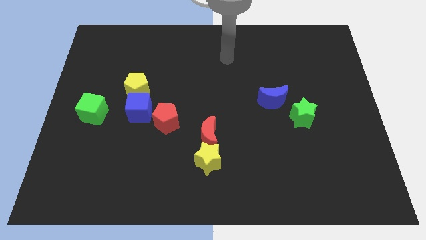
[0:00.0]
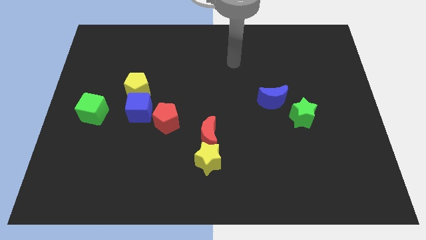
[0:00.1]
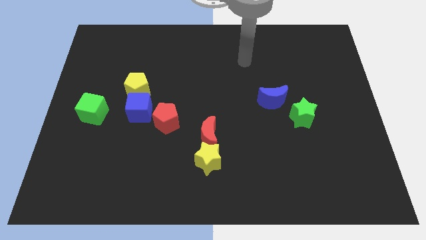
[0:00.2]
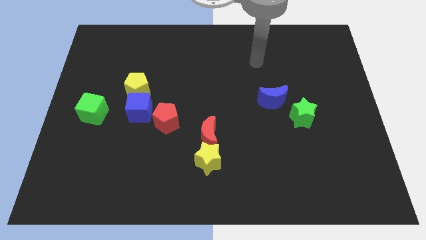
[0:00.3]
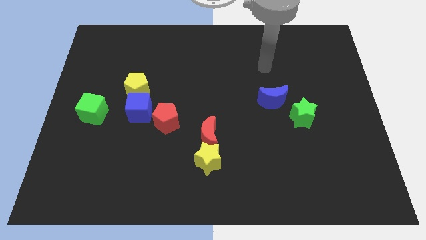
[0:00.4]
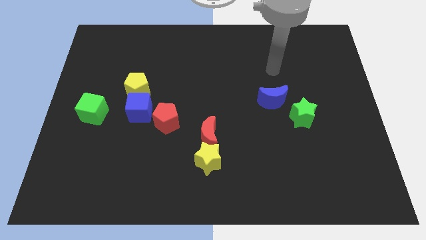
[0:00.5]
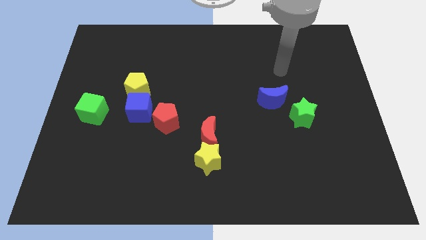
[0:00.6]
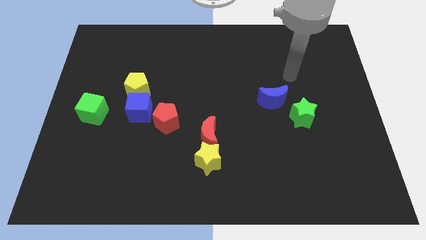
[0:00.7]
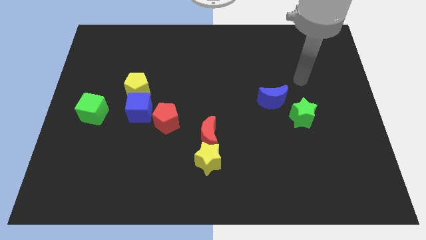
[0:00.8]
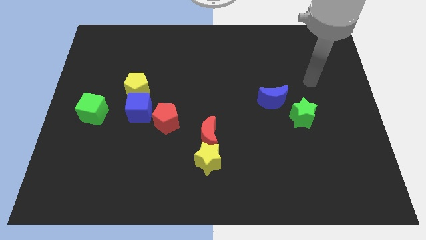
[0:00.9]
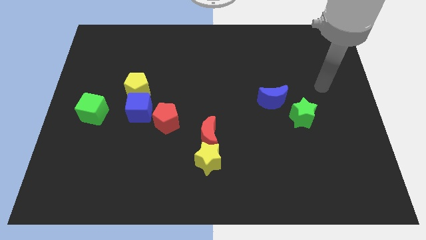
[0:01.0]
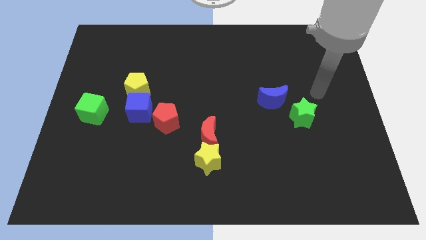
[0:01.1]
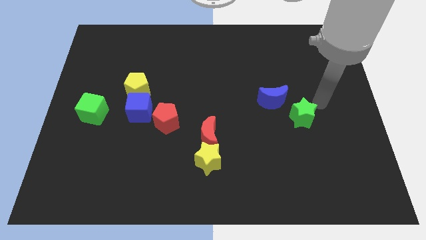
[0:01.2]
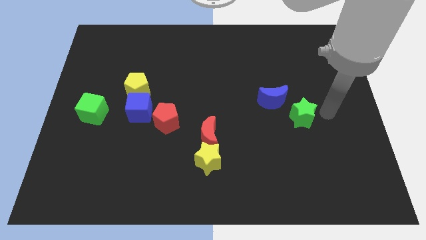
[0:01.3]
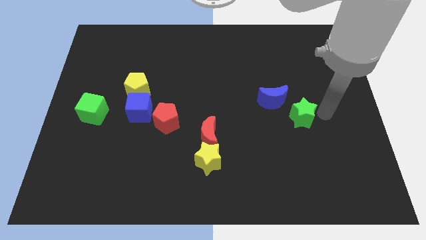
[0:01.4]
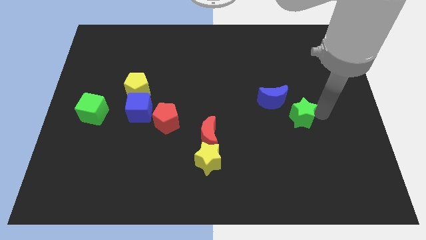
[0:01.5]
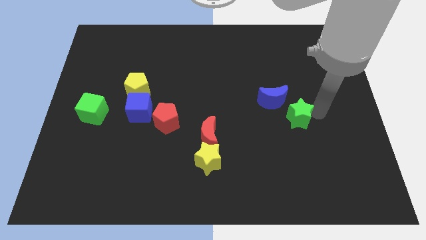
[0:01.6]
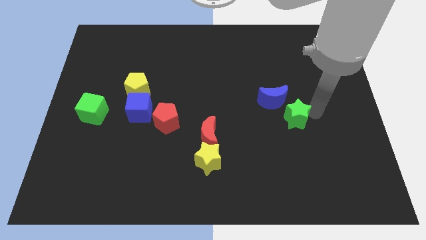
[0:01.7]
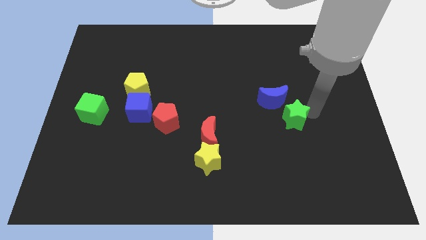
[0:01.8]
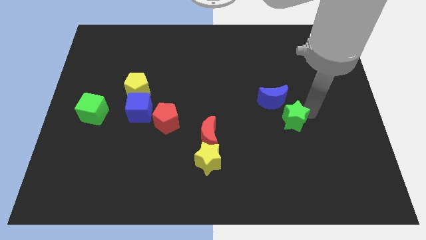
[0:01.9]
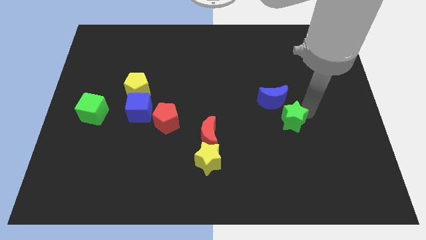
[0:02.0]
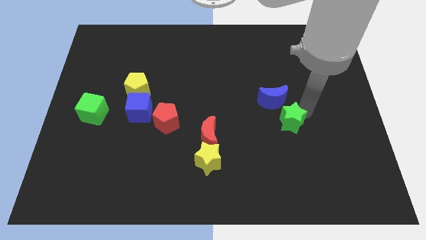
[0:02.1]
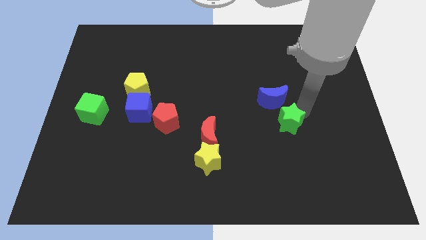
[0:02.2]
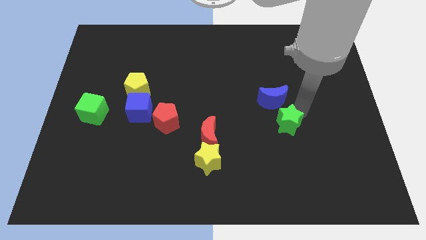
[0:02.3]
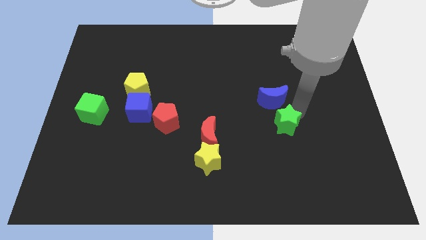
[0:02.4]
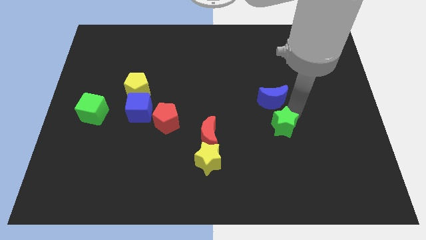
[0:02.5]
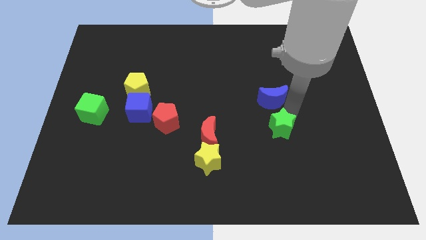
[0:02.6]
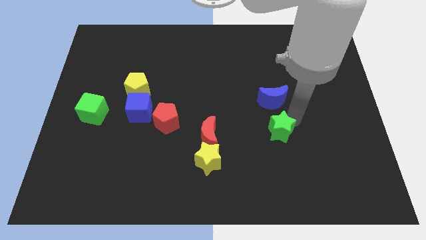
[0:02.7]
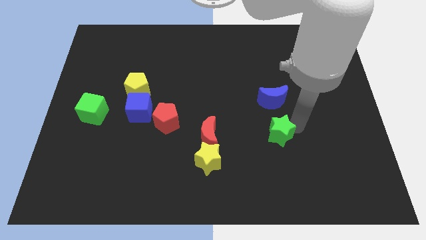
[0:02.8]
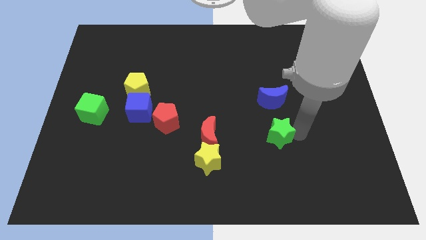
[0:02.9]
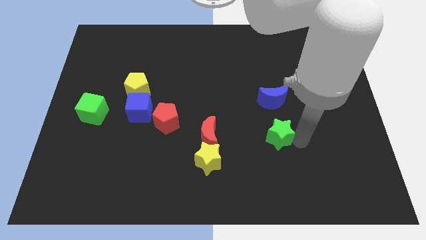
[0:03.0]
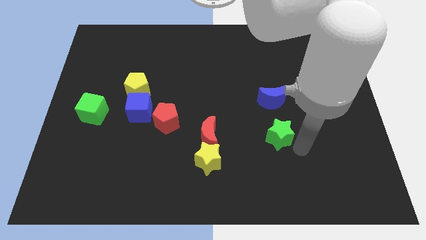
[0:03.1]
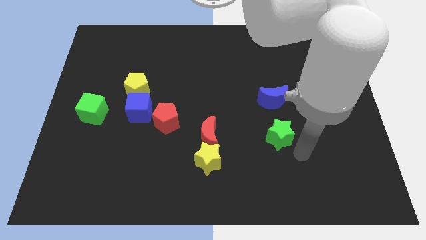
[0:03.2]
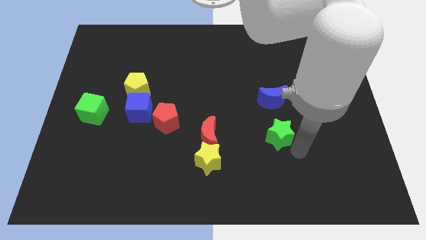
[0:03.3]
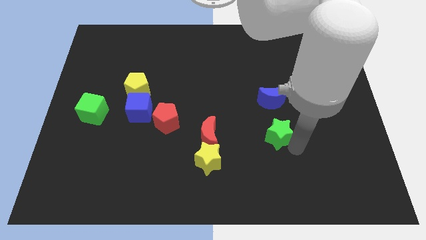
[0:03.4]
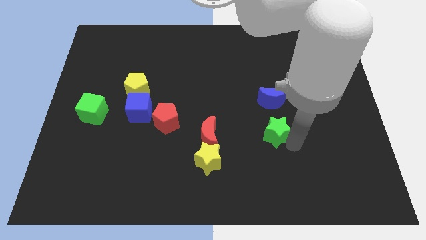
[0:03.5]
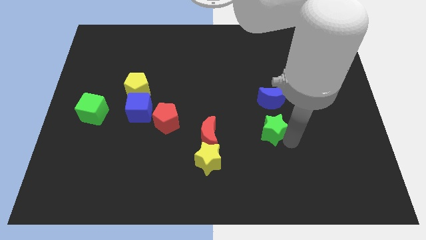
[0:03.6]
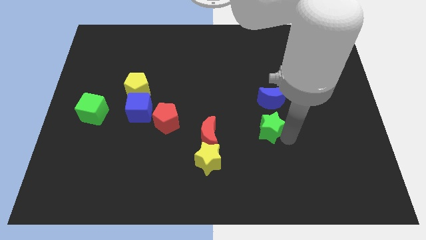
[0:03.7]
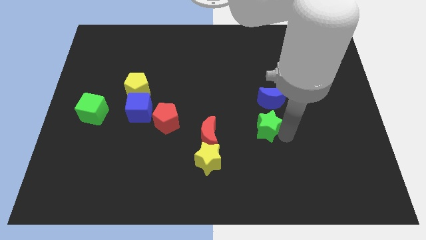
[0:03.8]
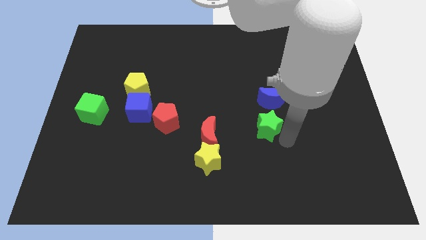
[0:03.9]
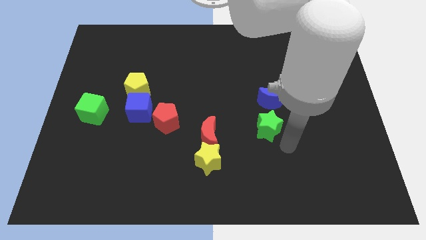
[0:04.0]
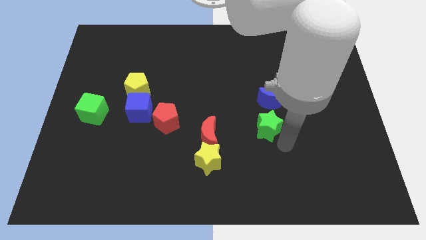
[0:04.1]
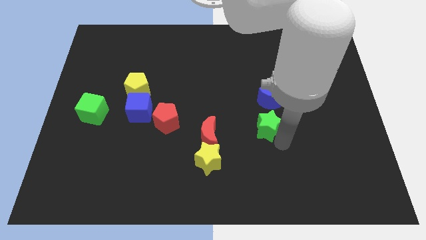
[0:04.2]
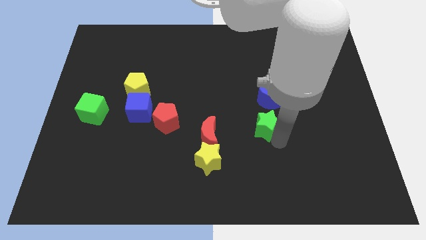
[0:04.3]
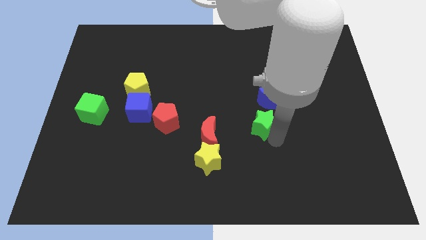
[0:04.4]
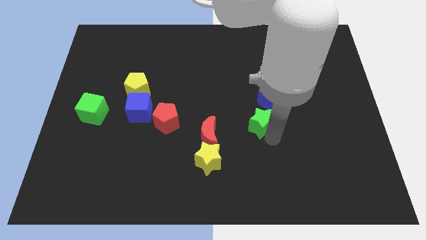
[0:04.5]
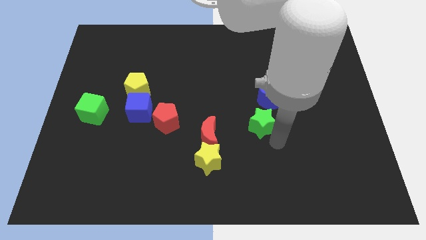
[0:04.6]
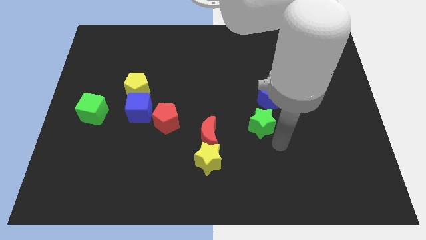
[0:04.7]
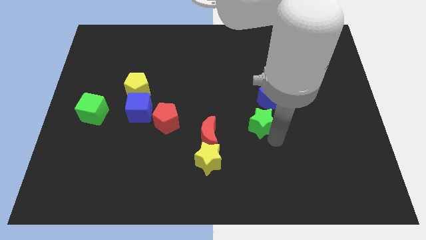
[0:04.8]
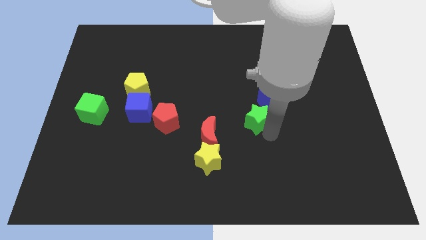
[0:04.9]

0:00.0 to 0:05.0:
slide the green star to the middle

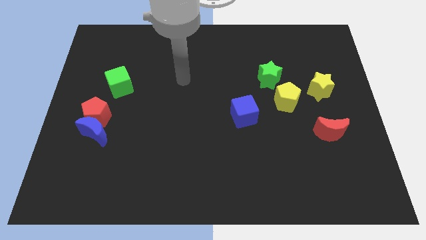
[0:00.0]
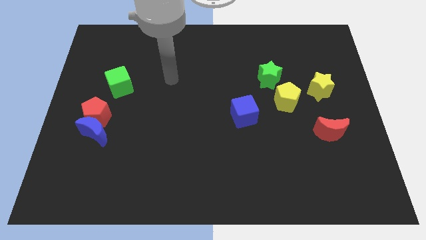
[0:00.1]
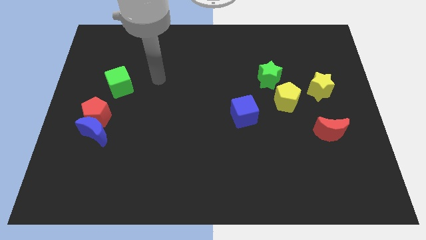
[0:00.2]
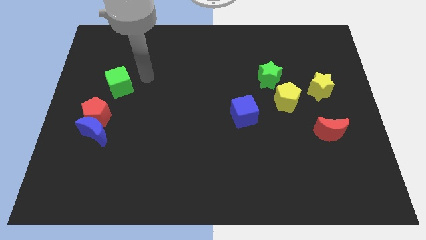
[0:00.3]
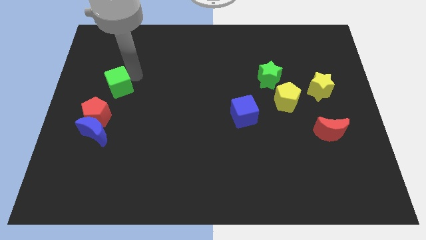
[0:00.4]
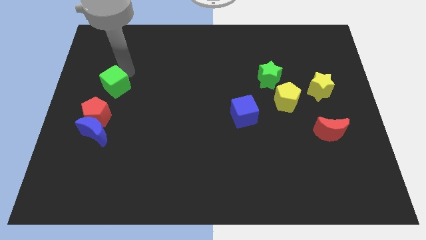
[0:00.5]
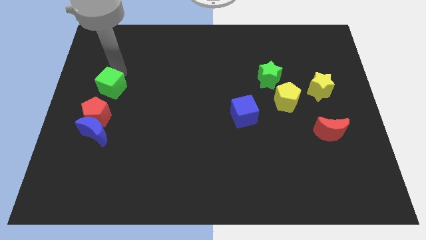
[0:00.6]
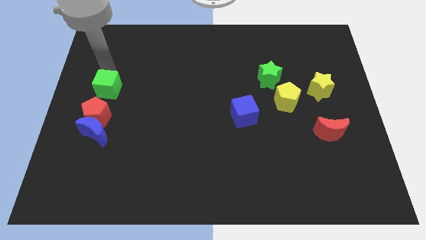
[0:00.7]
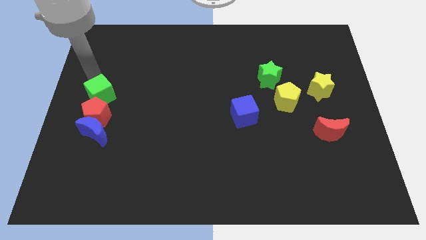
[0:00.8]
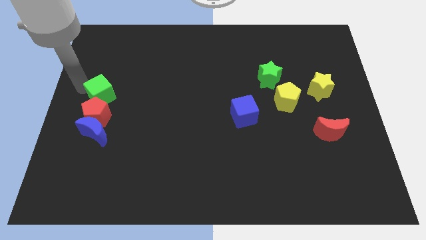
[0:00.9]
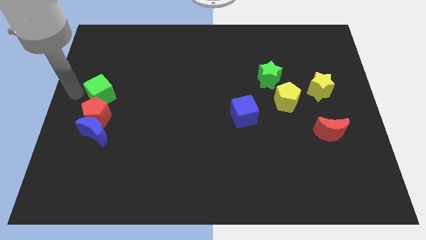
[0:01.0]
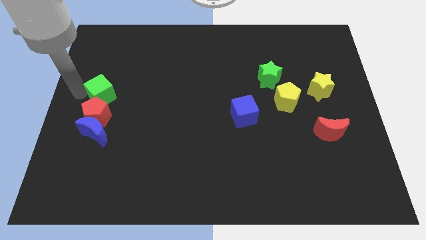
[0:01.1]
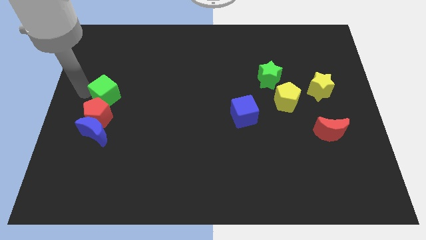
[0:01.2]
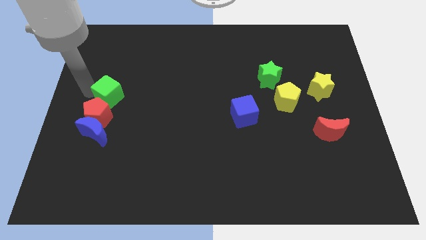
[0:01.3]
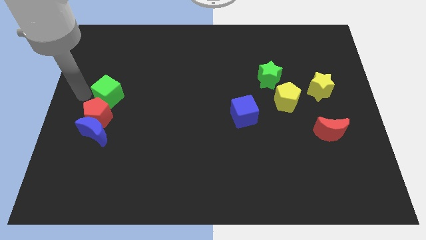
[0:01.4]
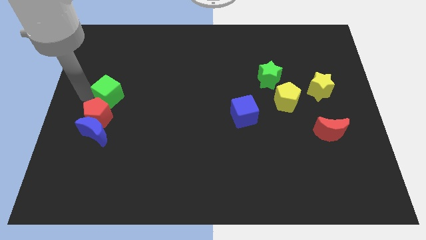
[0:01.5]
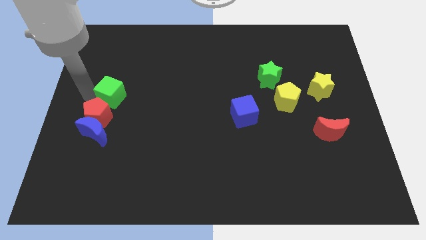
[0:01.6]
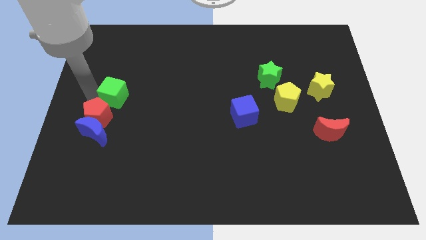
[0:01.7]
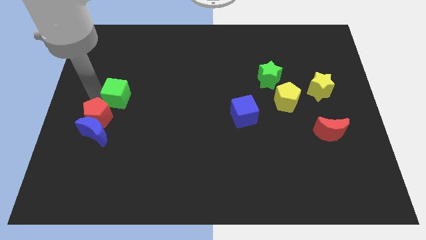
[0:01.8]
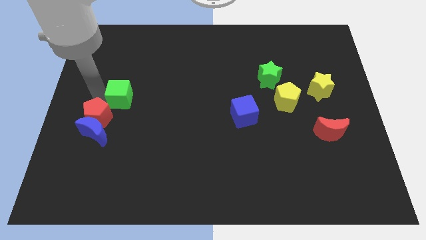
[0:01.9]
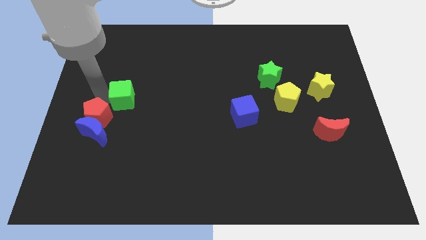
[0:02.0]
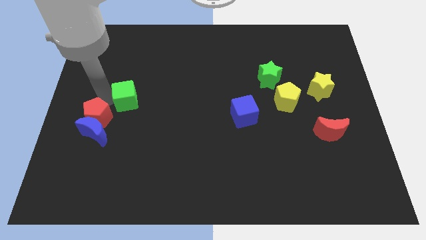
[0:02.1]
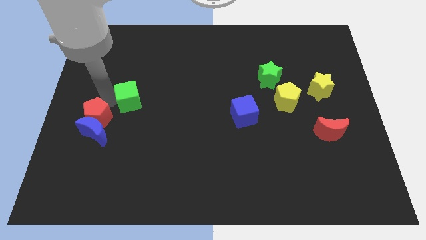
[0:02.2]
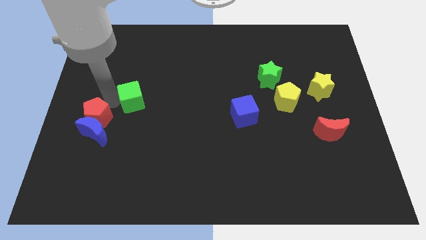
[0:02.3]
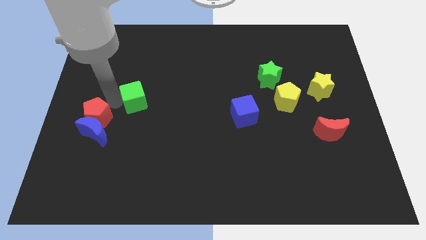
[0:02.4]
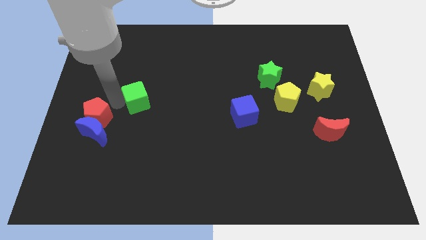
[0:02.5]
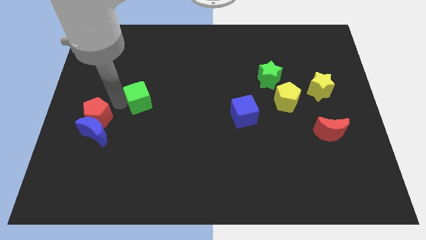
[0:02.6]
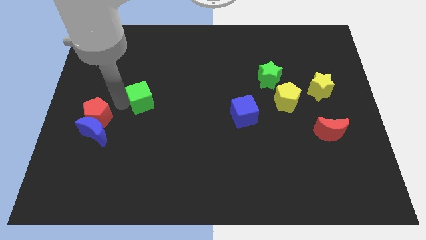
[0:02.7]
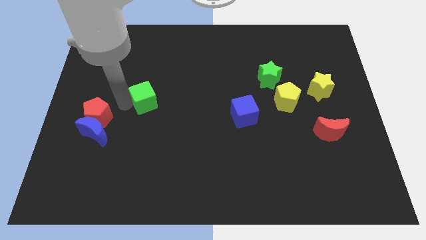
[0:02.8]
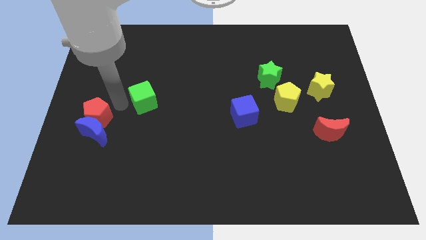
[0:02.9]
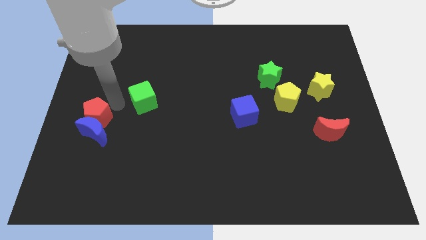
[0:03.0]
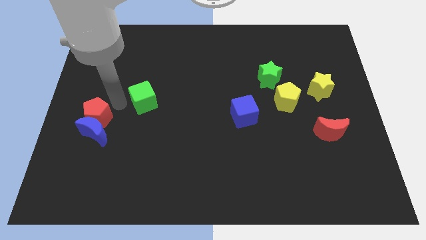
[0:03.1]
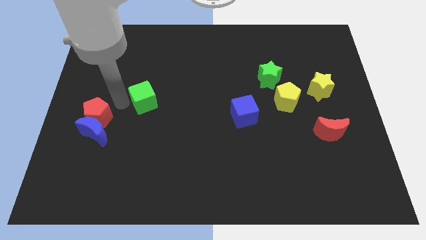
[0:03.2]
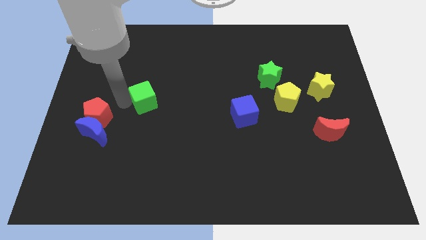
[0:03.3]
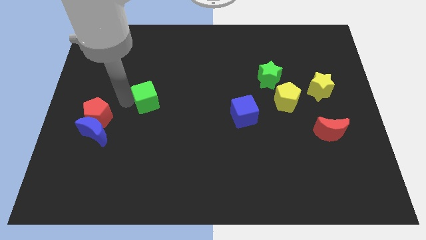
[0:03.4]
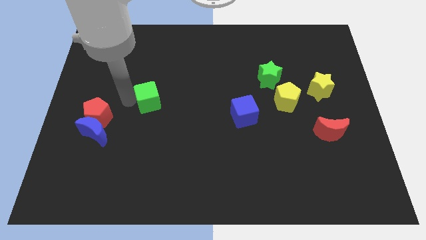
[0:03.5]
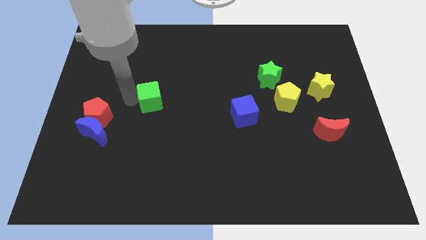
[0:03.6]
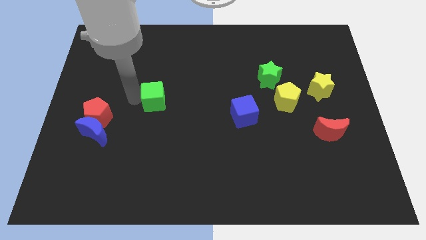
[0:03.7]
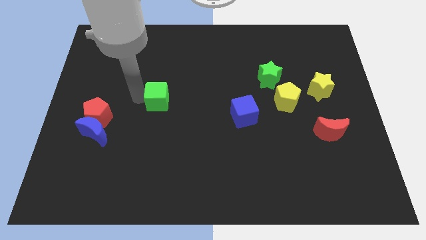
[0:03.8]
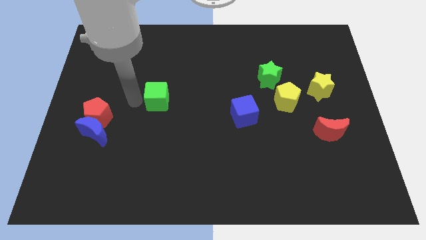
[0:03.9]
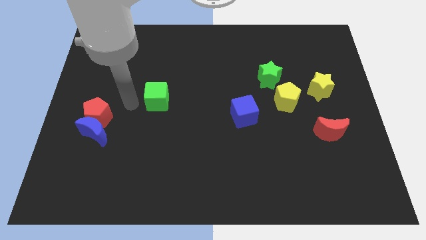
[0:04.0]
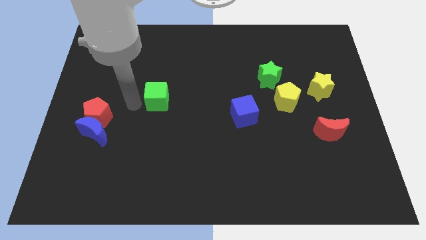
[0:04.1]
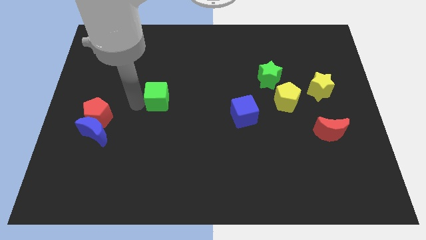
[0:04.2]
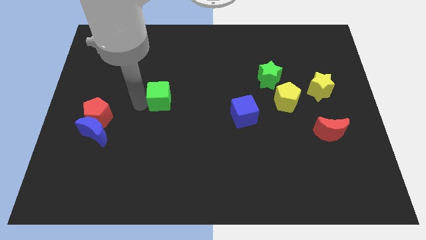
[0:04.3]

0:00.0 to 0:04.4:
move the green cube to the center
